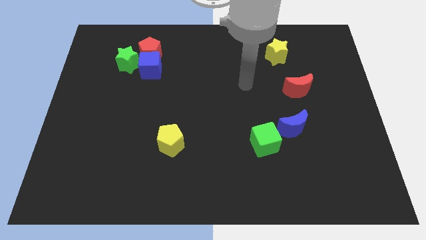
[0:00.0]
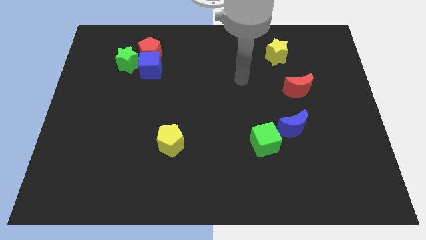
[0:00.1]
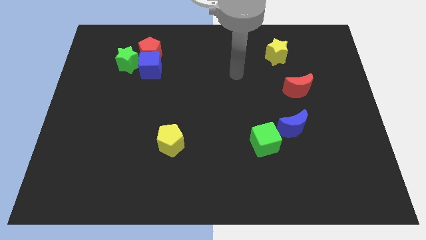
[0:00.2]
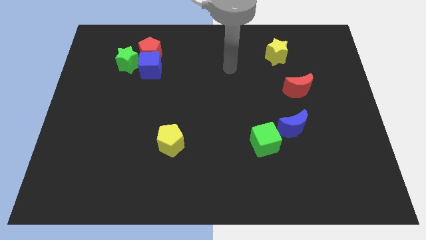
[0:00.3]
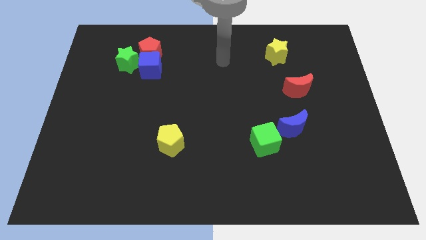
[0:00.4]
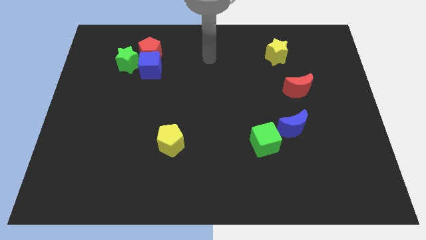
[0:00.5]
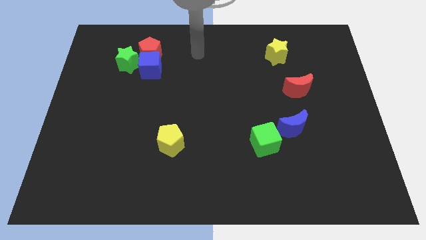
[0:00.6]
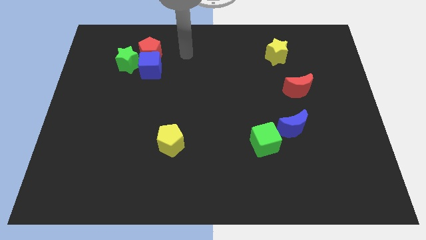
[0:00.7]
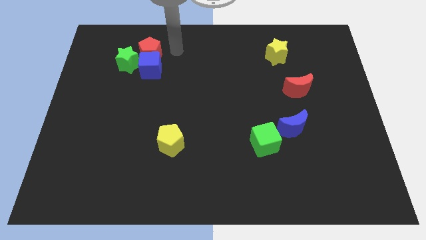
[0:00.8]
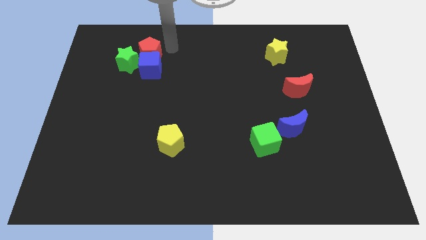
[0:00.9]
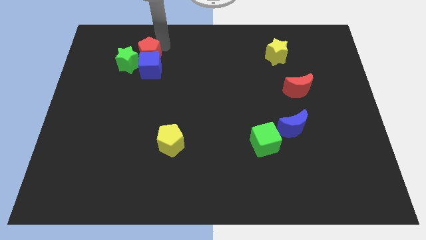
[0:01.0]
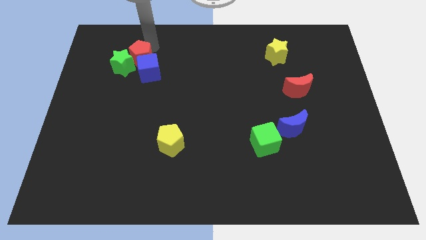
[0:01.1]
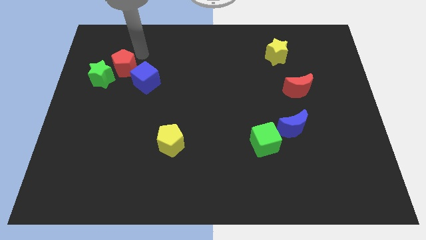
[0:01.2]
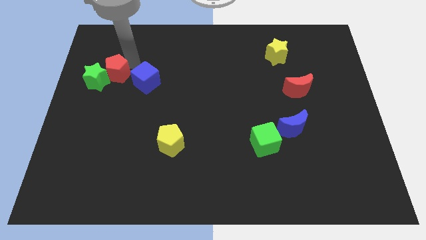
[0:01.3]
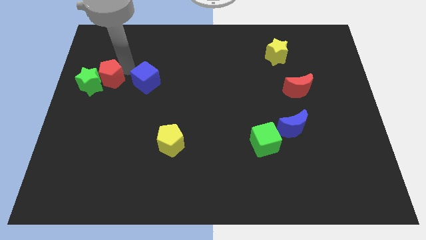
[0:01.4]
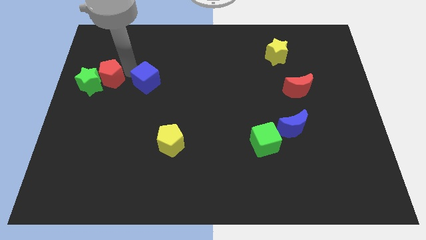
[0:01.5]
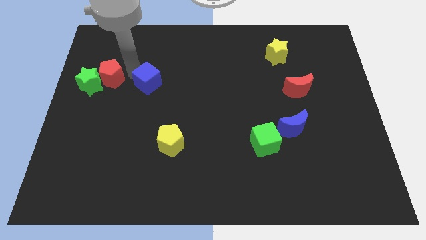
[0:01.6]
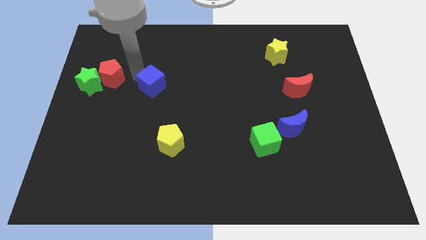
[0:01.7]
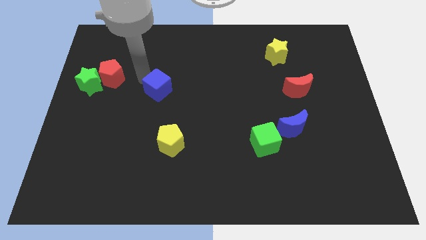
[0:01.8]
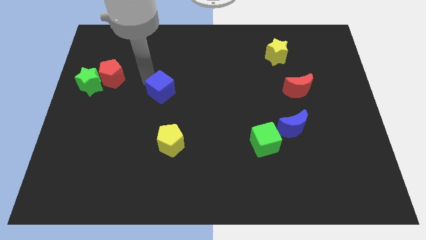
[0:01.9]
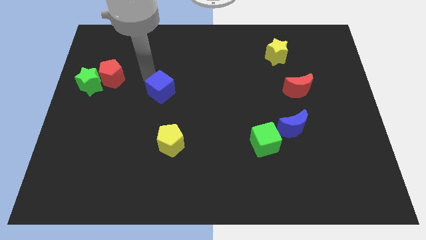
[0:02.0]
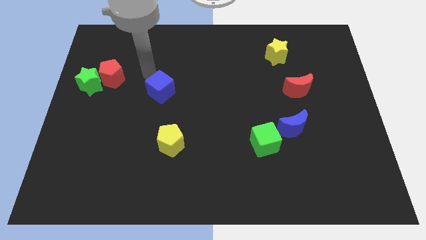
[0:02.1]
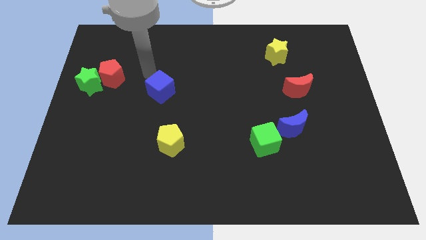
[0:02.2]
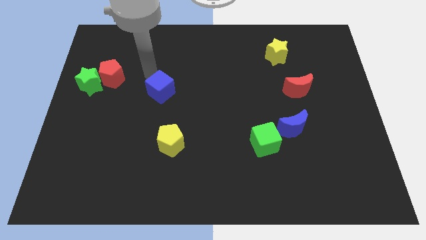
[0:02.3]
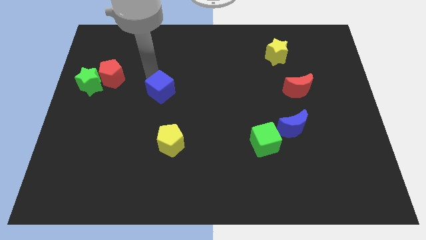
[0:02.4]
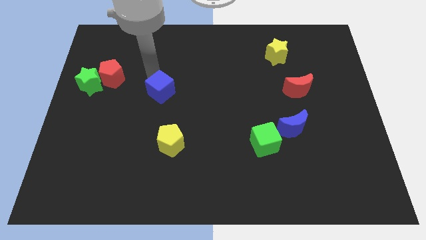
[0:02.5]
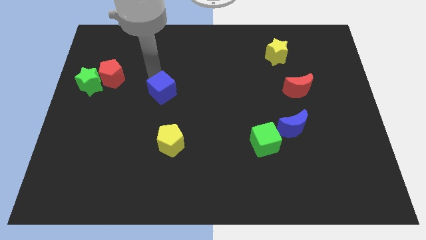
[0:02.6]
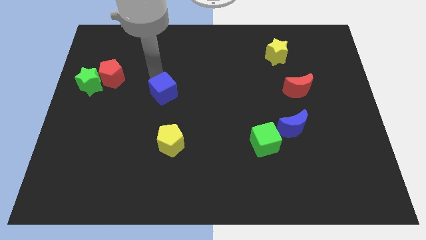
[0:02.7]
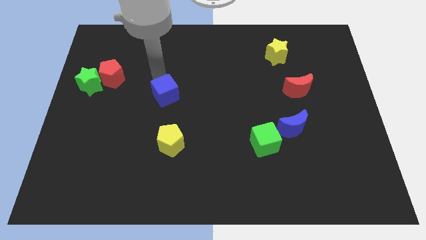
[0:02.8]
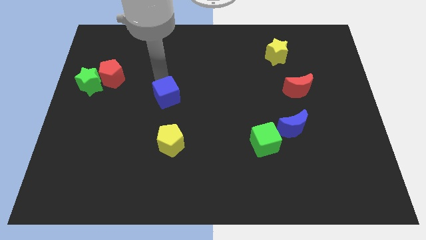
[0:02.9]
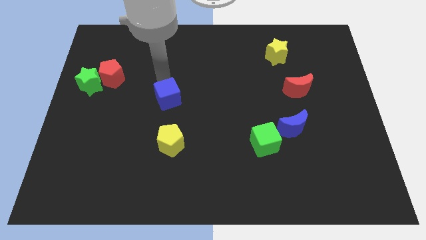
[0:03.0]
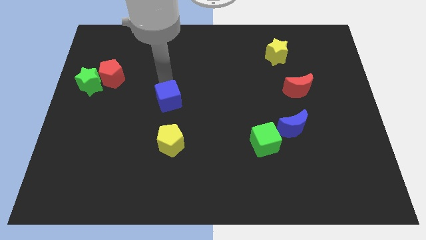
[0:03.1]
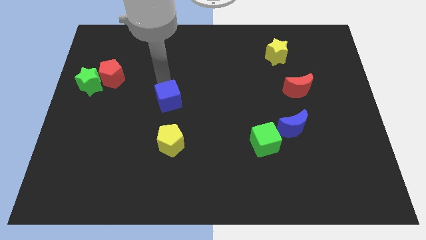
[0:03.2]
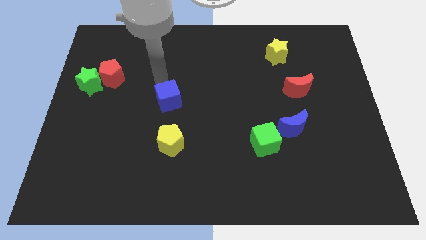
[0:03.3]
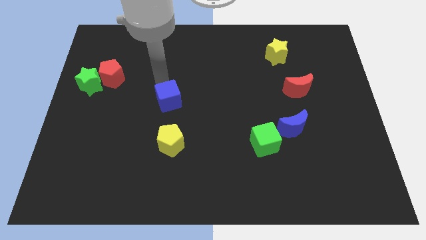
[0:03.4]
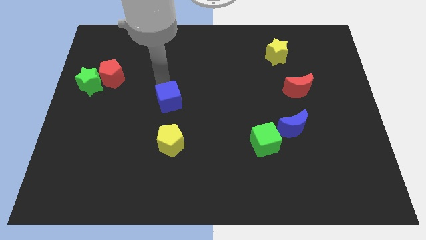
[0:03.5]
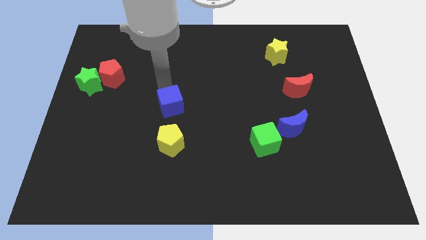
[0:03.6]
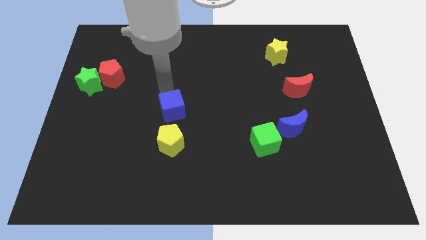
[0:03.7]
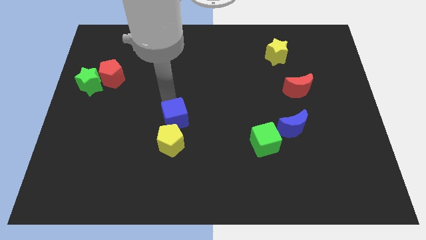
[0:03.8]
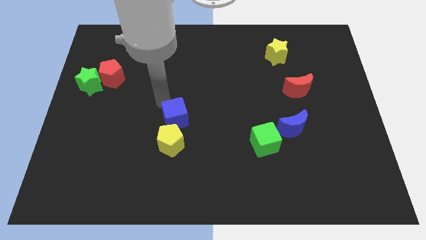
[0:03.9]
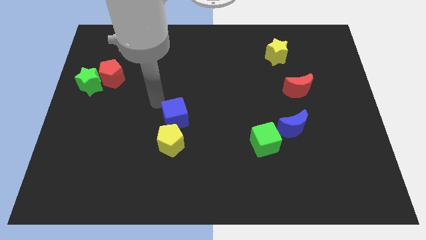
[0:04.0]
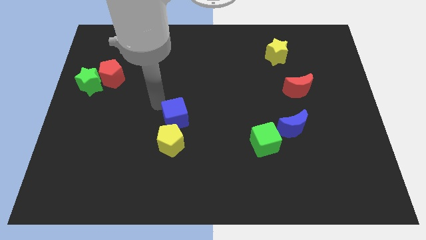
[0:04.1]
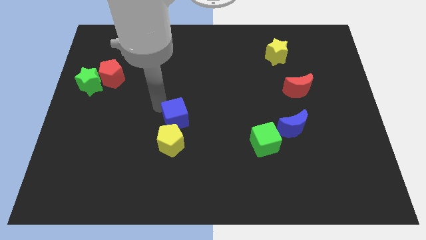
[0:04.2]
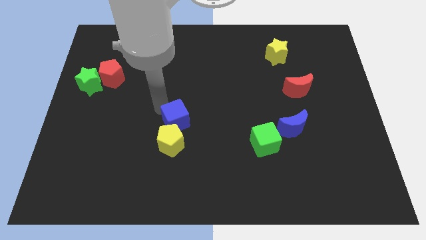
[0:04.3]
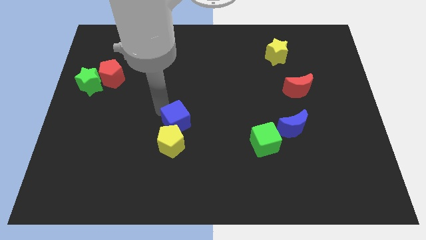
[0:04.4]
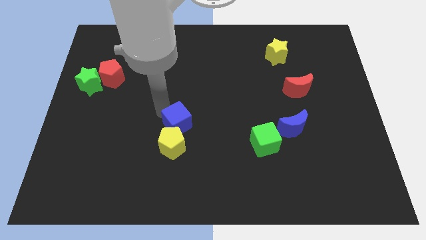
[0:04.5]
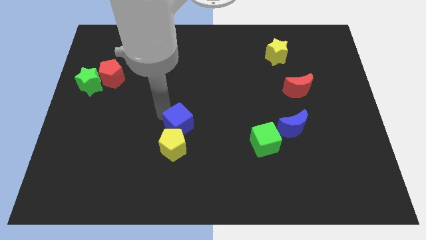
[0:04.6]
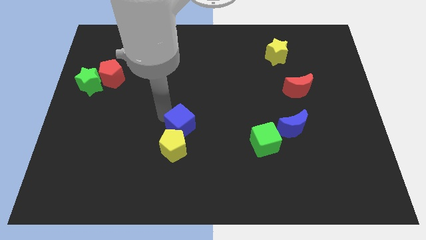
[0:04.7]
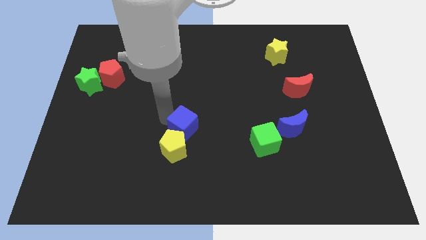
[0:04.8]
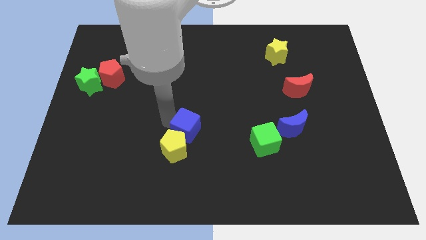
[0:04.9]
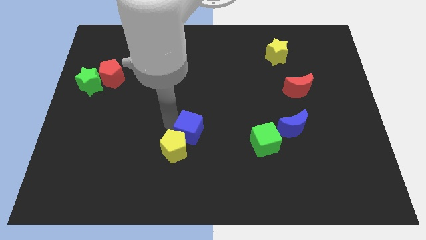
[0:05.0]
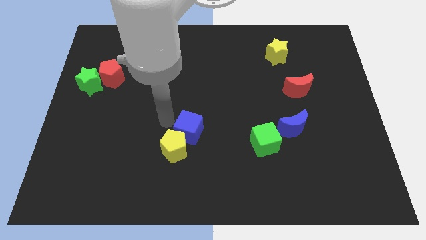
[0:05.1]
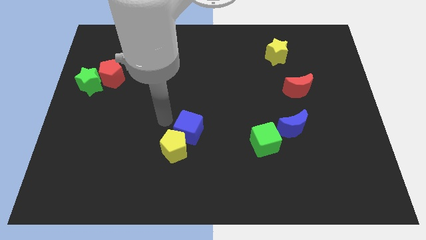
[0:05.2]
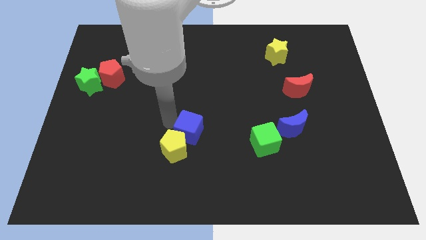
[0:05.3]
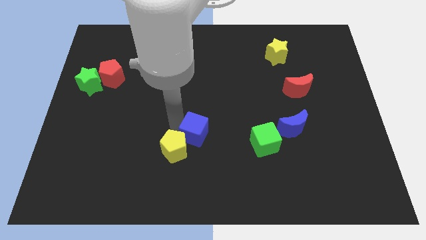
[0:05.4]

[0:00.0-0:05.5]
slide the blue cube left of the green cube

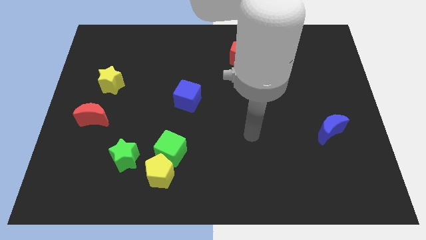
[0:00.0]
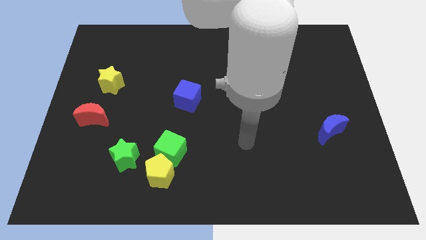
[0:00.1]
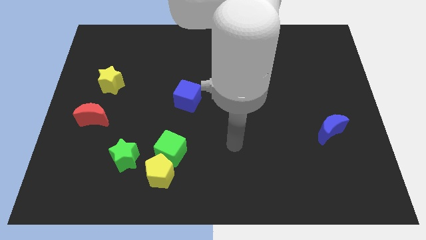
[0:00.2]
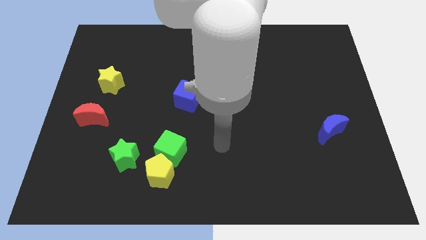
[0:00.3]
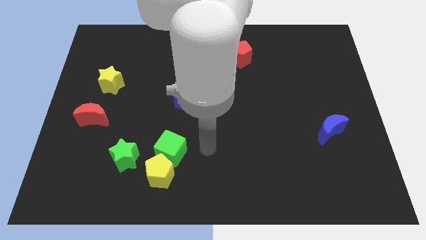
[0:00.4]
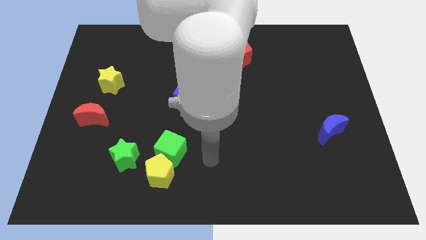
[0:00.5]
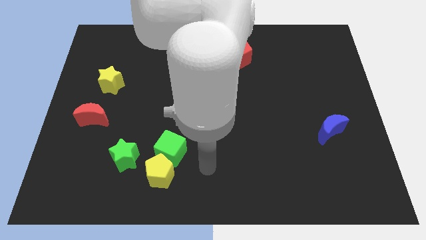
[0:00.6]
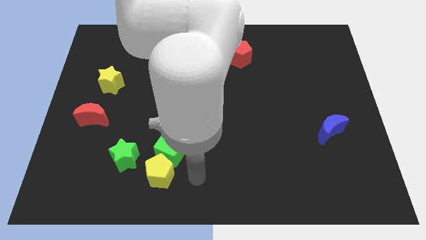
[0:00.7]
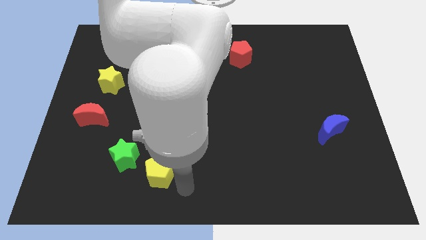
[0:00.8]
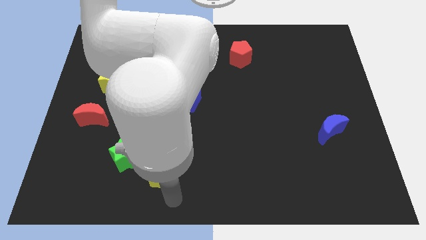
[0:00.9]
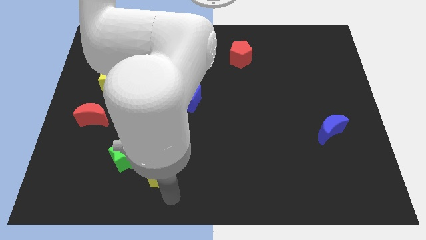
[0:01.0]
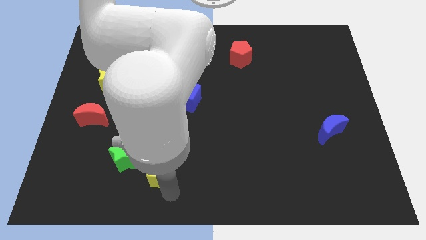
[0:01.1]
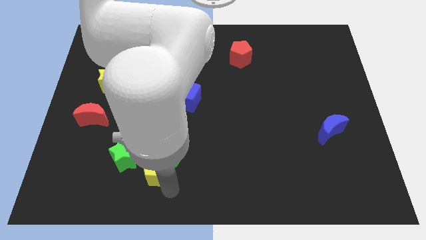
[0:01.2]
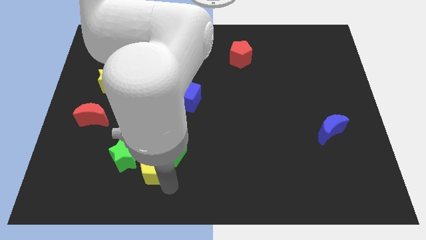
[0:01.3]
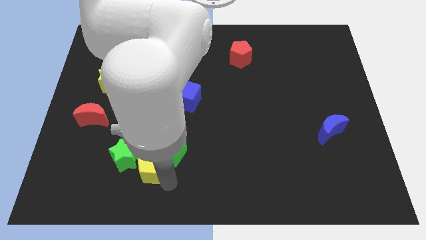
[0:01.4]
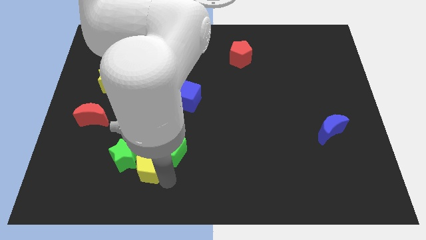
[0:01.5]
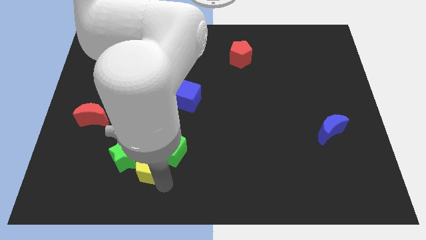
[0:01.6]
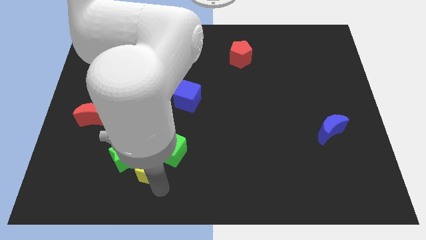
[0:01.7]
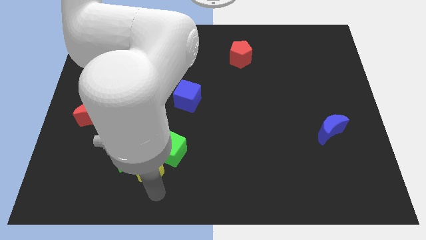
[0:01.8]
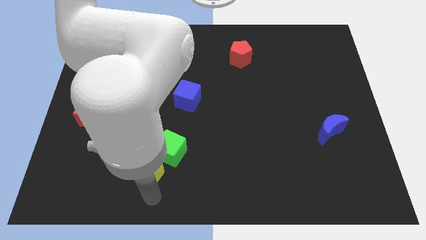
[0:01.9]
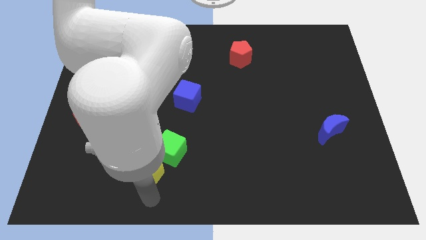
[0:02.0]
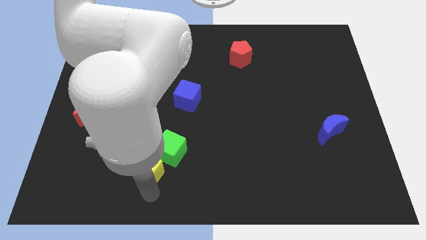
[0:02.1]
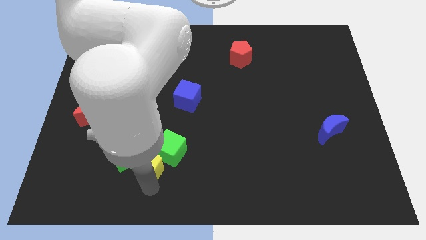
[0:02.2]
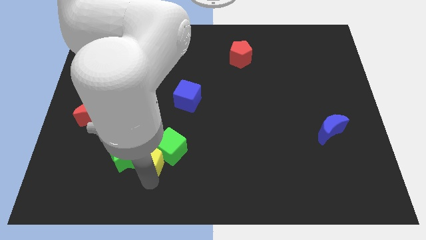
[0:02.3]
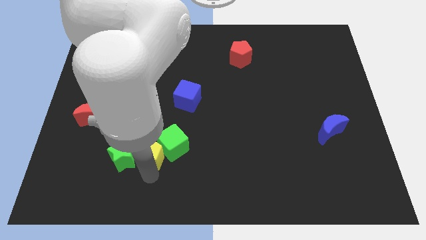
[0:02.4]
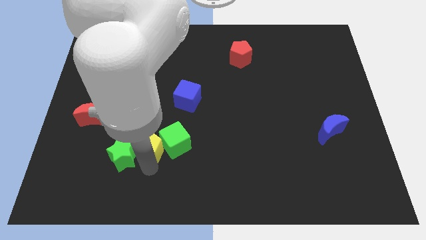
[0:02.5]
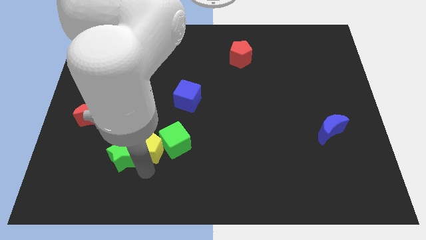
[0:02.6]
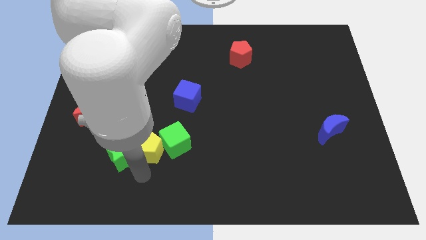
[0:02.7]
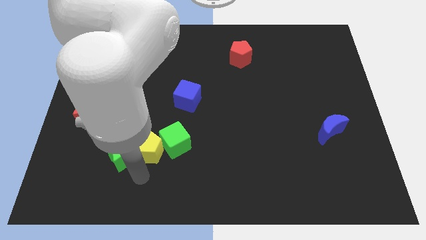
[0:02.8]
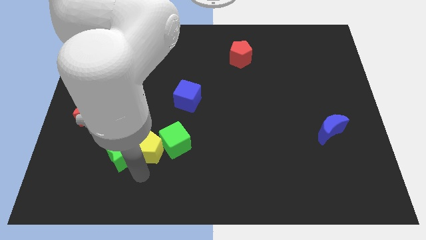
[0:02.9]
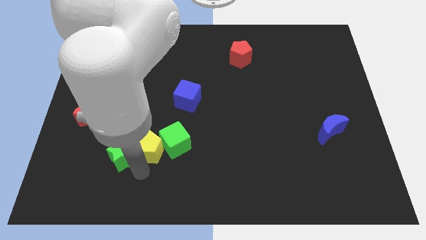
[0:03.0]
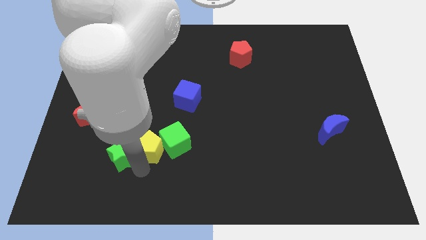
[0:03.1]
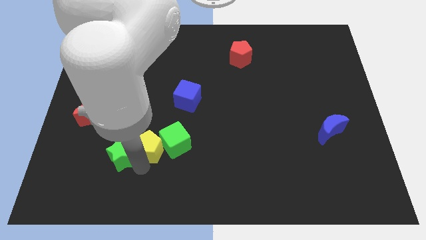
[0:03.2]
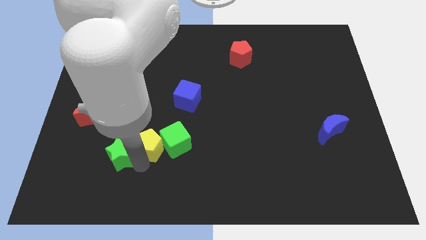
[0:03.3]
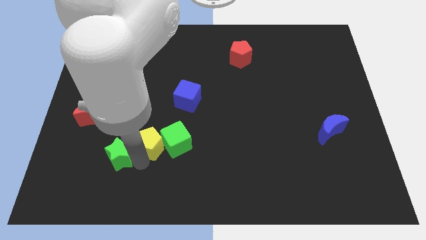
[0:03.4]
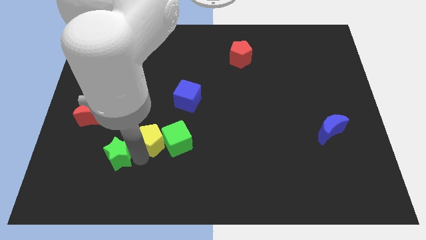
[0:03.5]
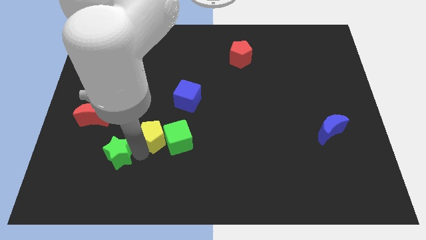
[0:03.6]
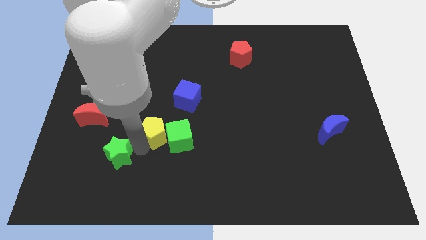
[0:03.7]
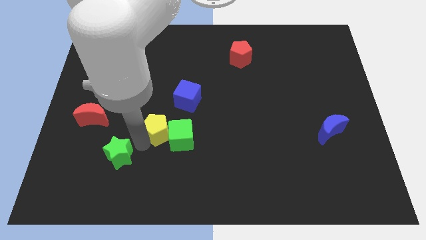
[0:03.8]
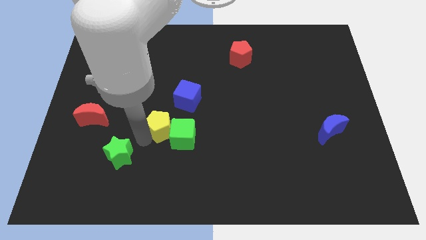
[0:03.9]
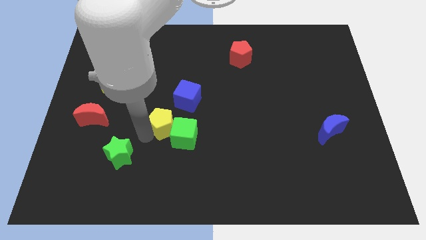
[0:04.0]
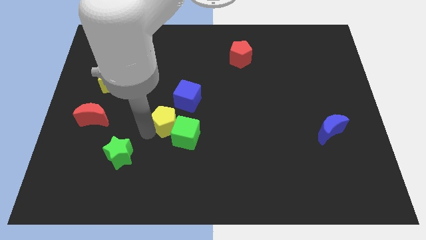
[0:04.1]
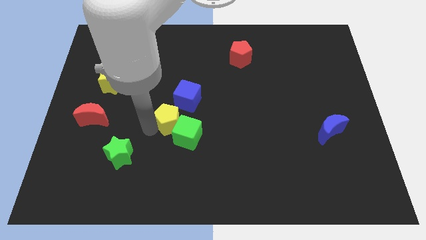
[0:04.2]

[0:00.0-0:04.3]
move the yellow pentagon above the green cube
